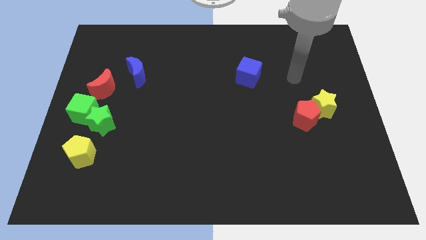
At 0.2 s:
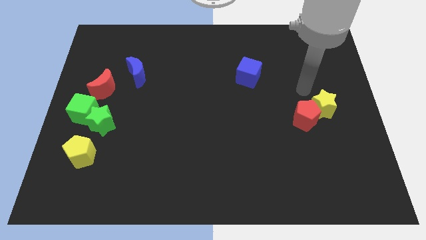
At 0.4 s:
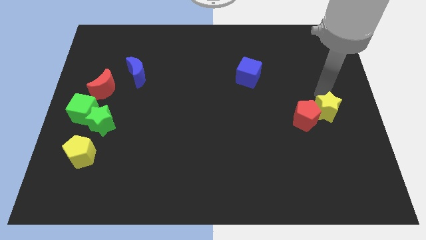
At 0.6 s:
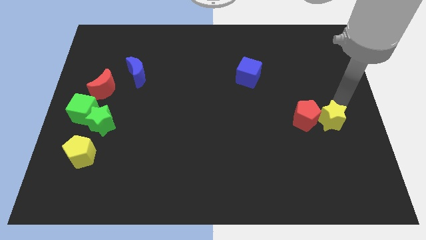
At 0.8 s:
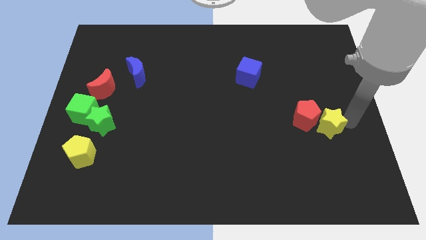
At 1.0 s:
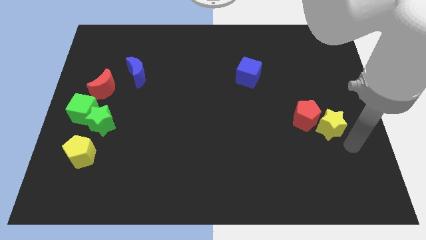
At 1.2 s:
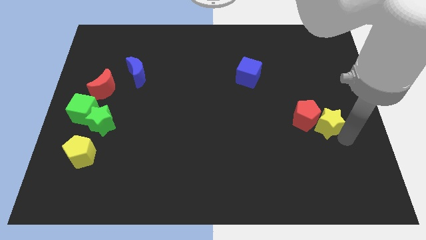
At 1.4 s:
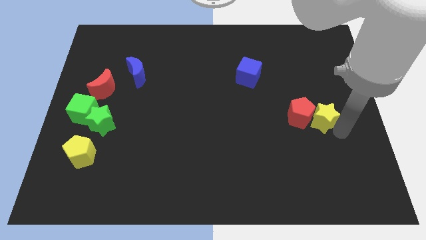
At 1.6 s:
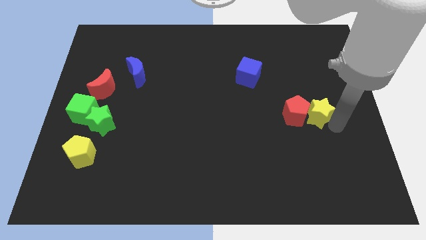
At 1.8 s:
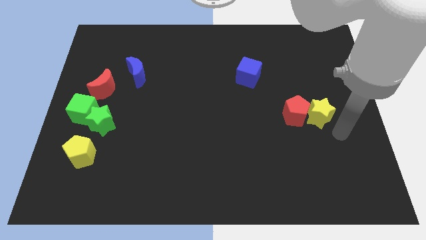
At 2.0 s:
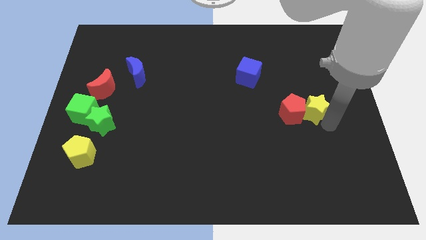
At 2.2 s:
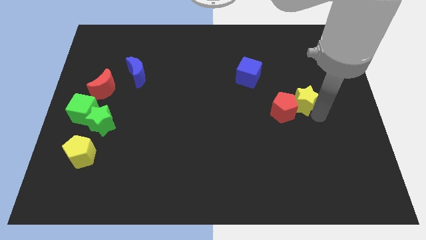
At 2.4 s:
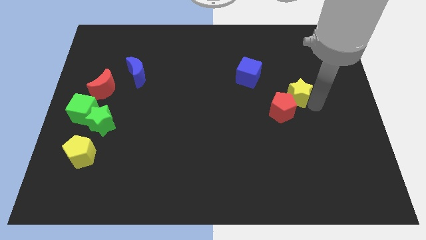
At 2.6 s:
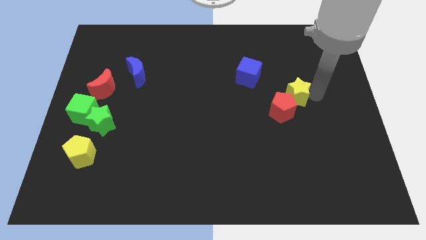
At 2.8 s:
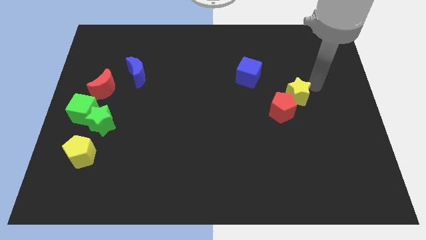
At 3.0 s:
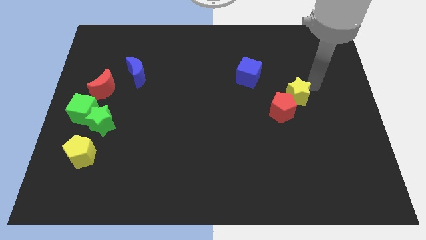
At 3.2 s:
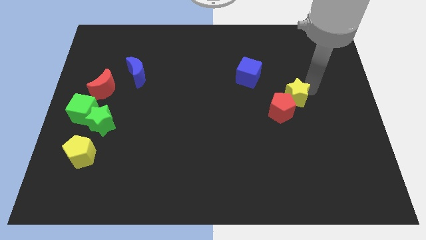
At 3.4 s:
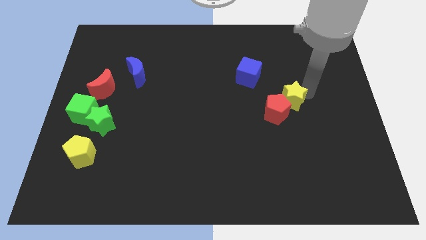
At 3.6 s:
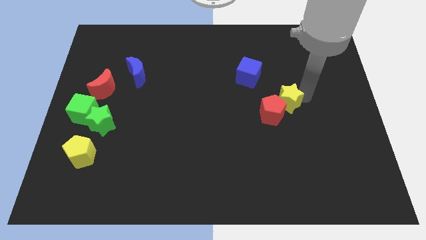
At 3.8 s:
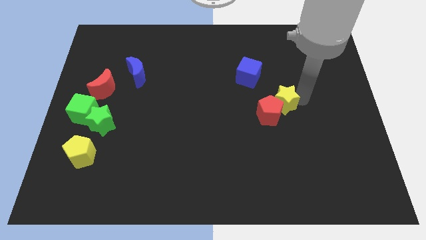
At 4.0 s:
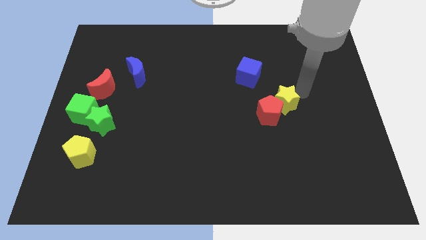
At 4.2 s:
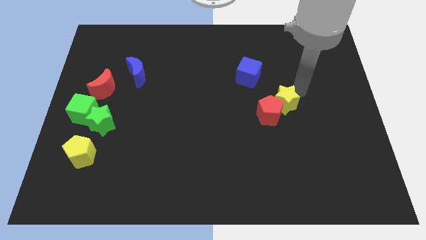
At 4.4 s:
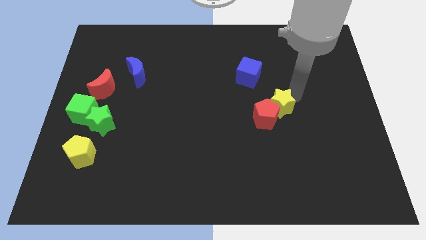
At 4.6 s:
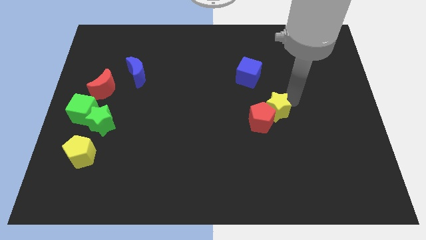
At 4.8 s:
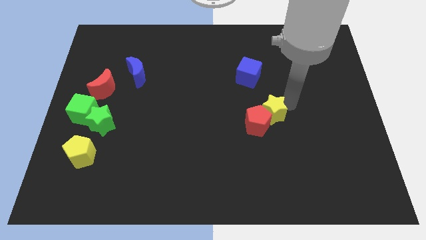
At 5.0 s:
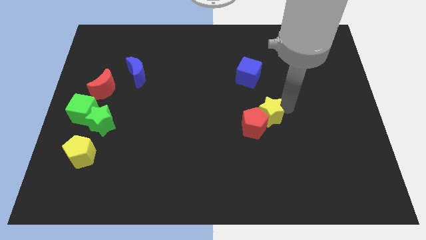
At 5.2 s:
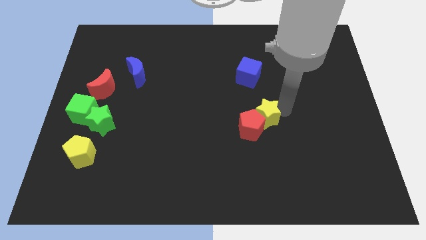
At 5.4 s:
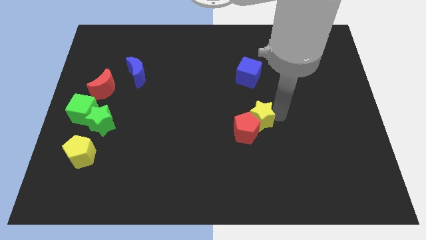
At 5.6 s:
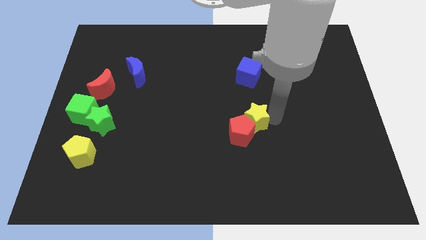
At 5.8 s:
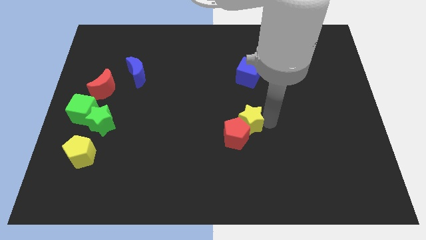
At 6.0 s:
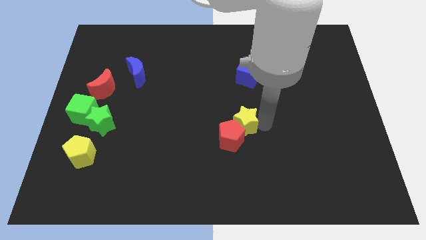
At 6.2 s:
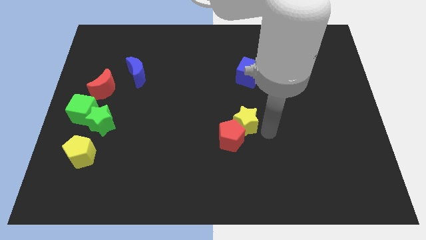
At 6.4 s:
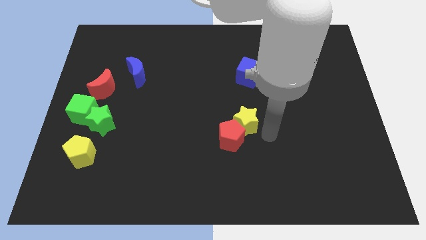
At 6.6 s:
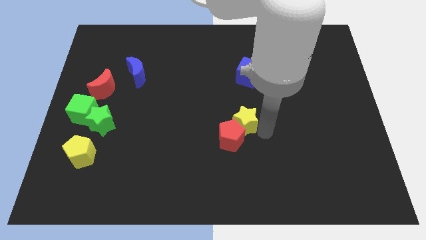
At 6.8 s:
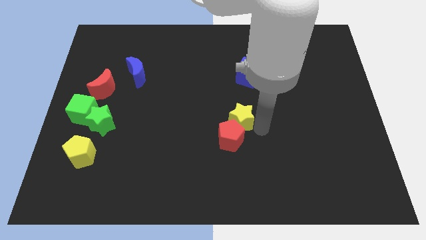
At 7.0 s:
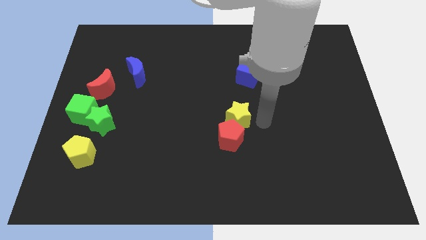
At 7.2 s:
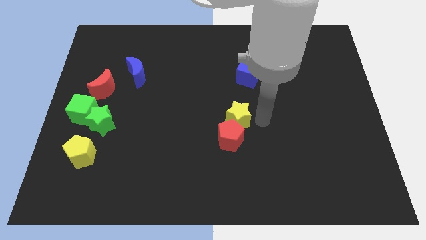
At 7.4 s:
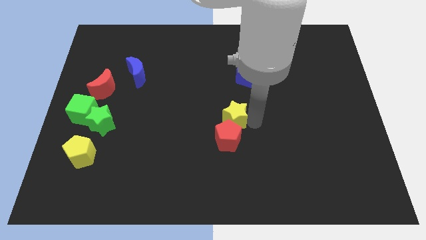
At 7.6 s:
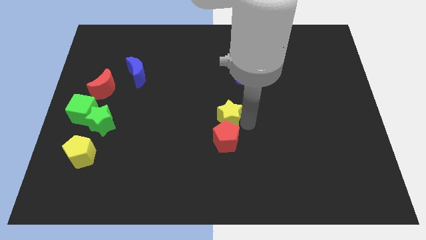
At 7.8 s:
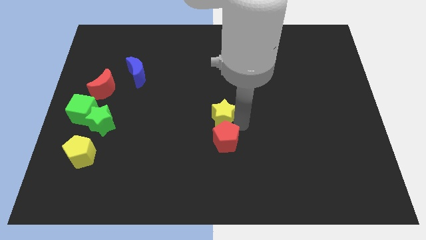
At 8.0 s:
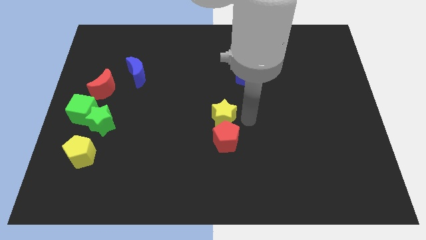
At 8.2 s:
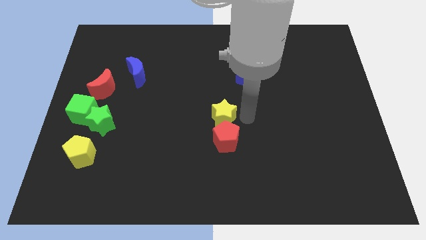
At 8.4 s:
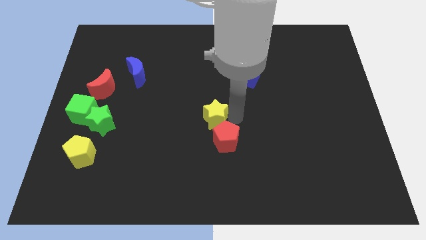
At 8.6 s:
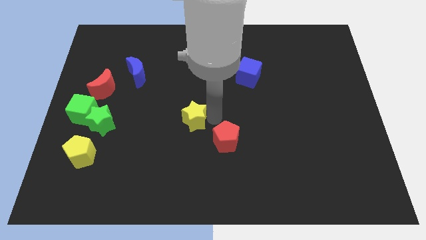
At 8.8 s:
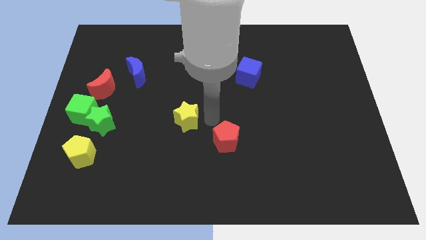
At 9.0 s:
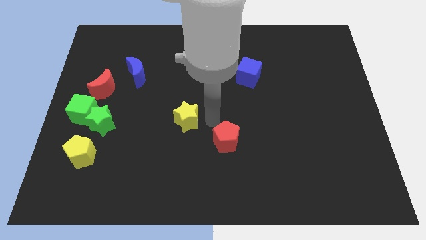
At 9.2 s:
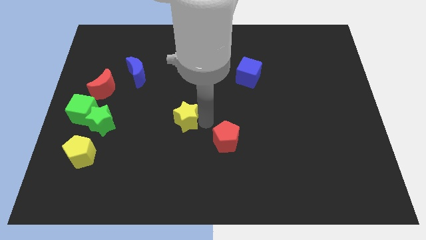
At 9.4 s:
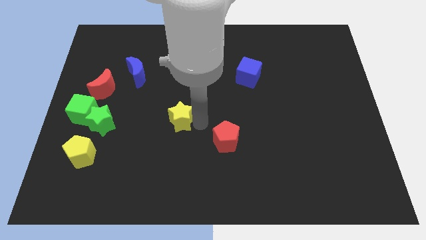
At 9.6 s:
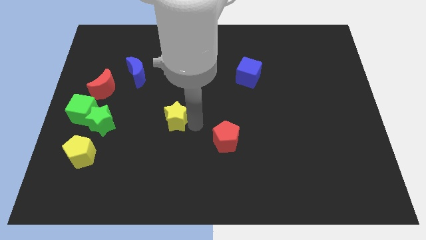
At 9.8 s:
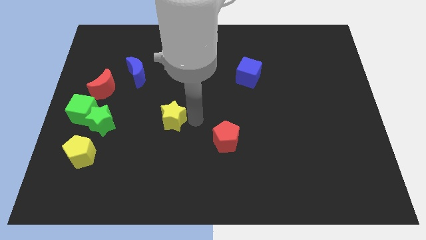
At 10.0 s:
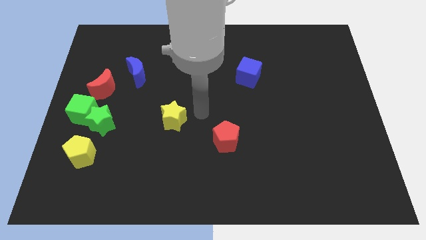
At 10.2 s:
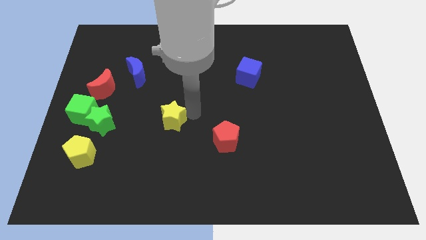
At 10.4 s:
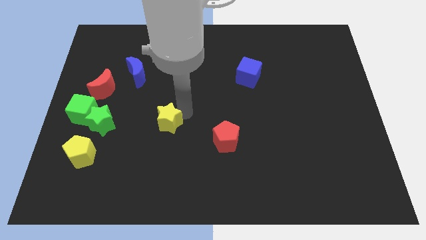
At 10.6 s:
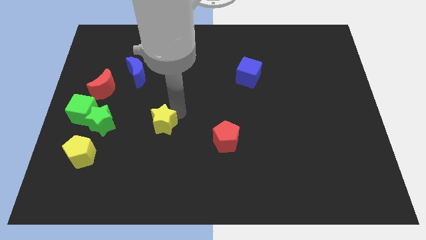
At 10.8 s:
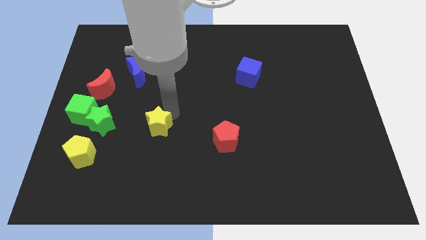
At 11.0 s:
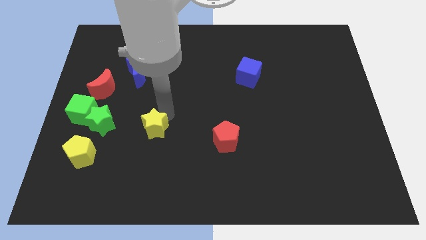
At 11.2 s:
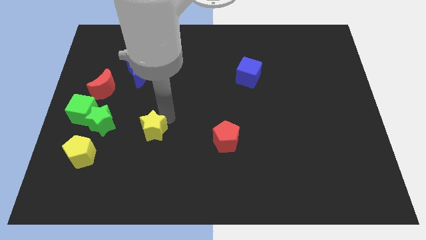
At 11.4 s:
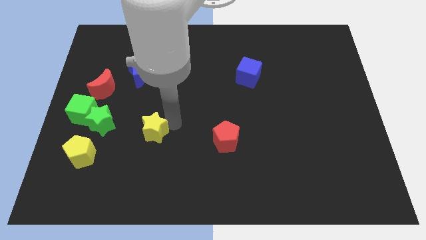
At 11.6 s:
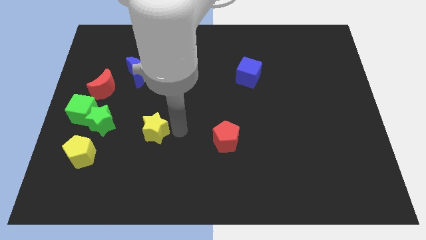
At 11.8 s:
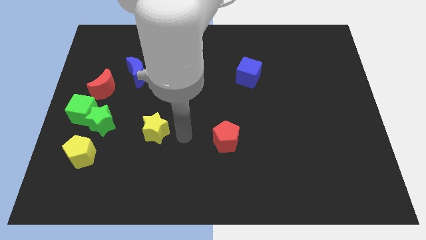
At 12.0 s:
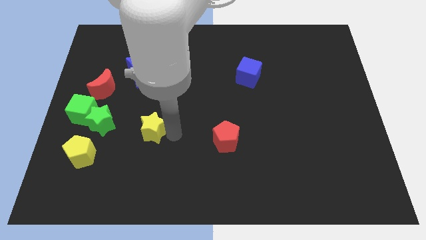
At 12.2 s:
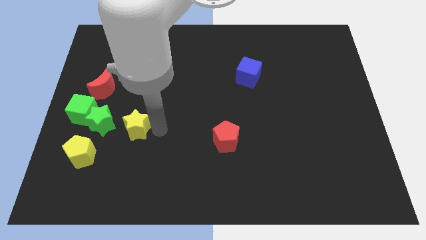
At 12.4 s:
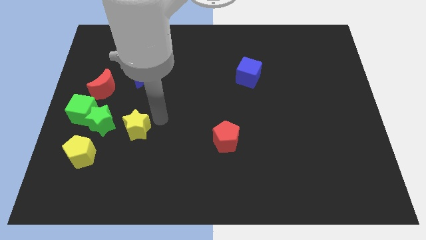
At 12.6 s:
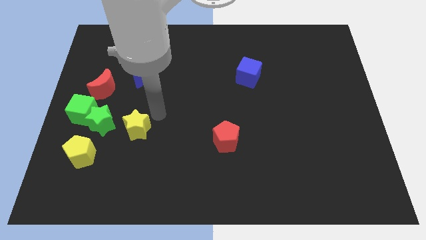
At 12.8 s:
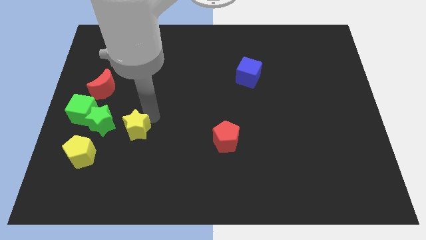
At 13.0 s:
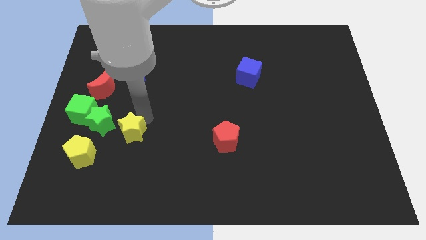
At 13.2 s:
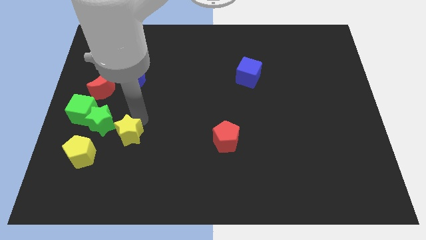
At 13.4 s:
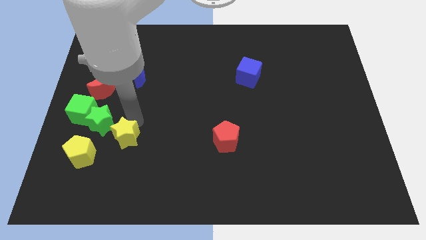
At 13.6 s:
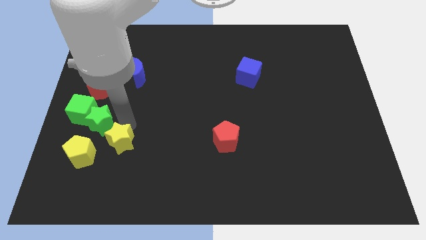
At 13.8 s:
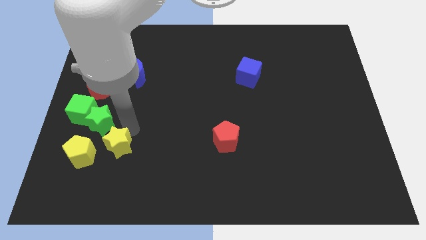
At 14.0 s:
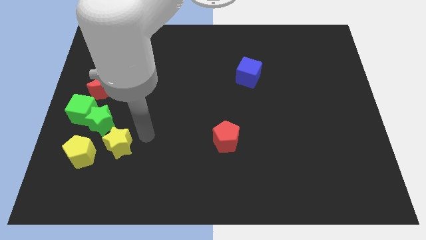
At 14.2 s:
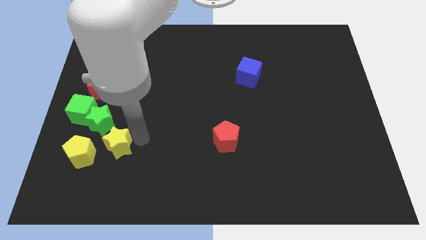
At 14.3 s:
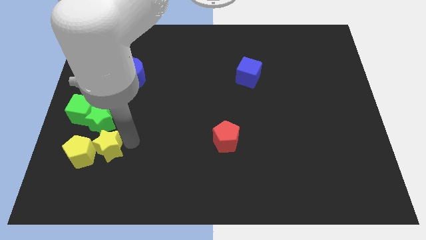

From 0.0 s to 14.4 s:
put the yellow star close to the yellow pentagon

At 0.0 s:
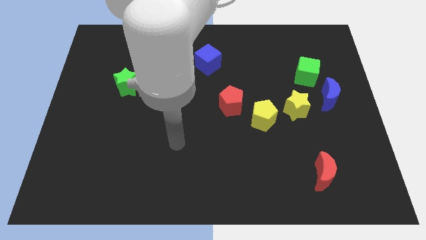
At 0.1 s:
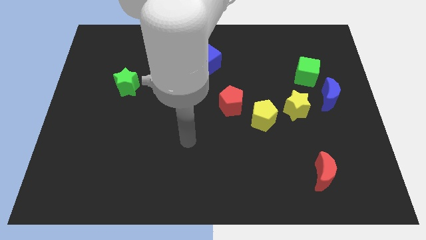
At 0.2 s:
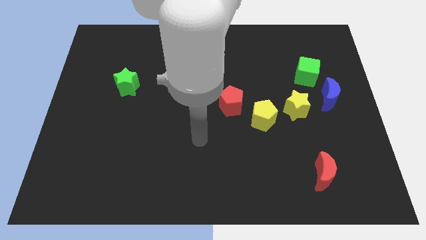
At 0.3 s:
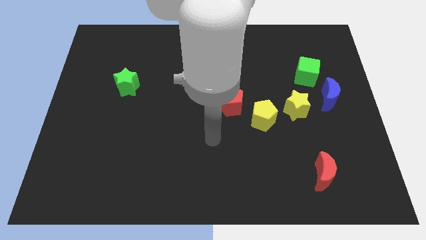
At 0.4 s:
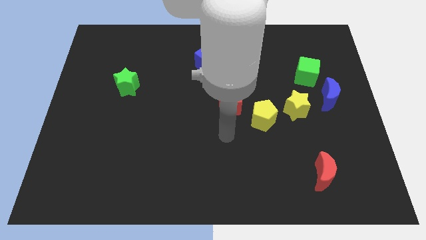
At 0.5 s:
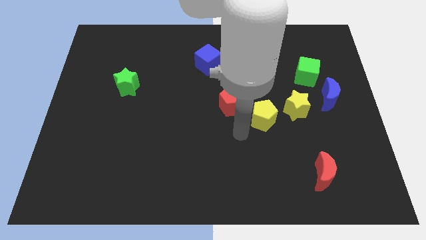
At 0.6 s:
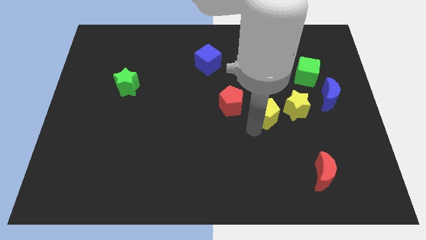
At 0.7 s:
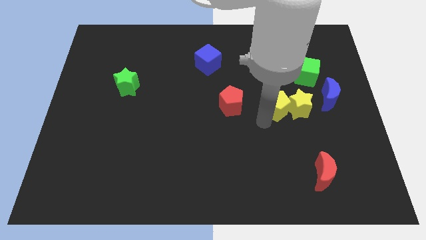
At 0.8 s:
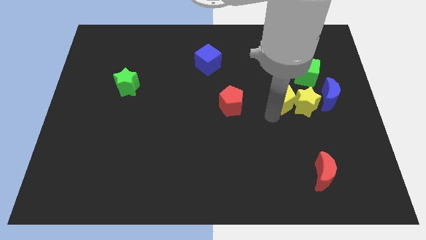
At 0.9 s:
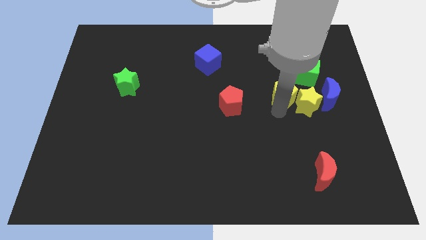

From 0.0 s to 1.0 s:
move the yellow star to the blue moon
